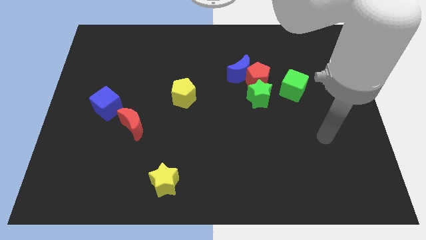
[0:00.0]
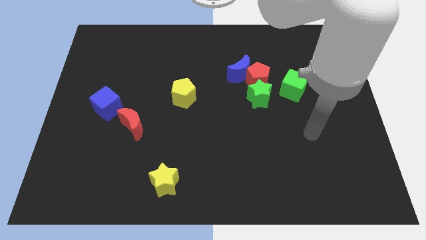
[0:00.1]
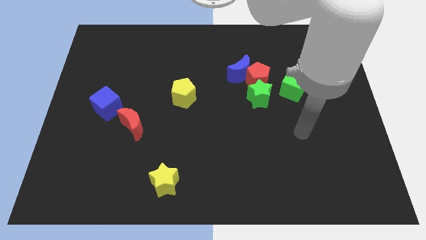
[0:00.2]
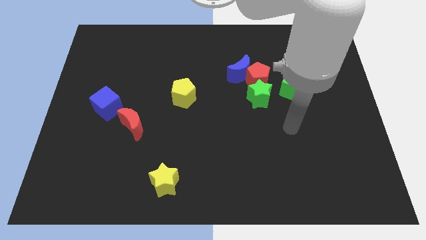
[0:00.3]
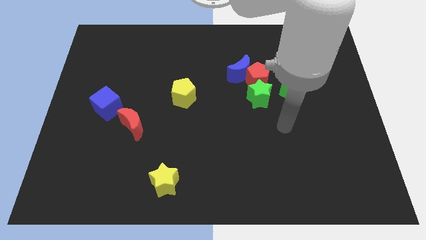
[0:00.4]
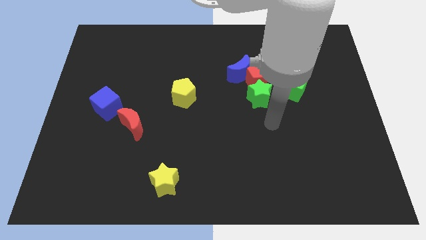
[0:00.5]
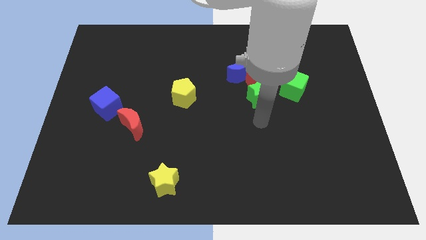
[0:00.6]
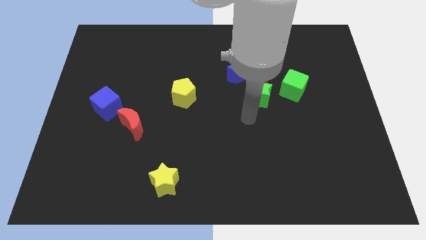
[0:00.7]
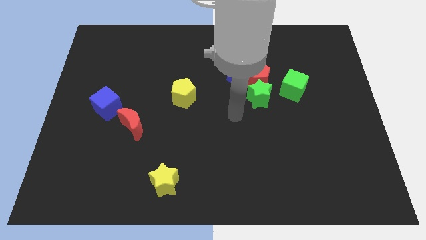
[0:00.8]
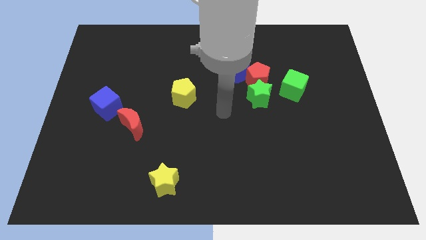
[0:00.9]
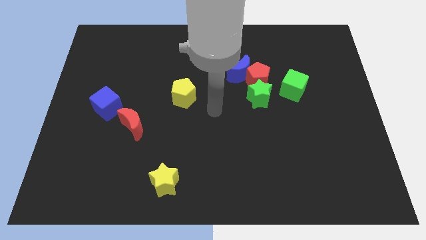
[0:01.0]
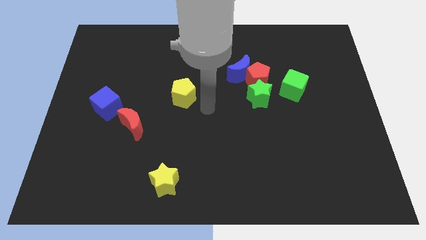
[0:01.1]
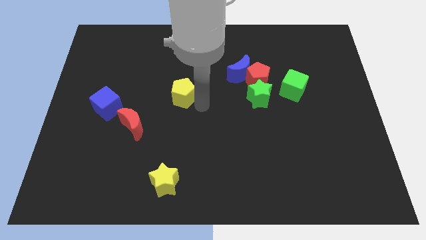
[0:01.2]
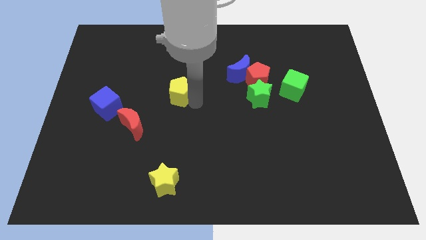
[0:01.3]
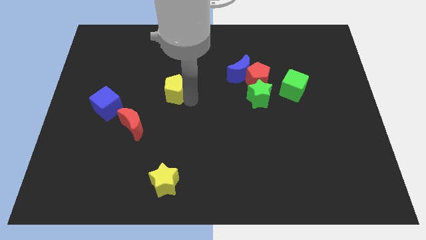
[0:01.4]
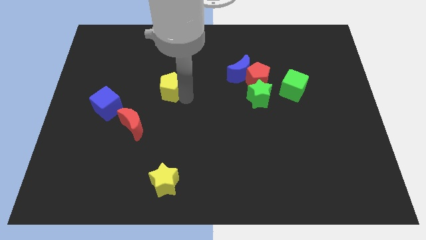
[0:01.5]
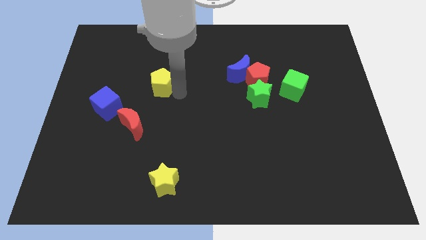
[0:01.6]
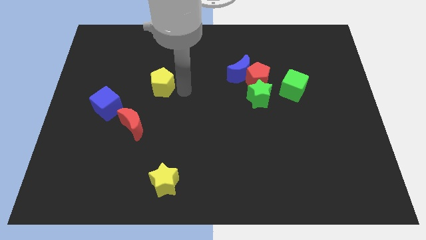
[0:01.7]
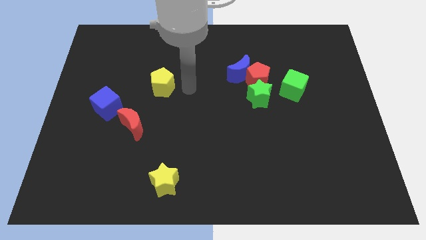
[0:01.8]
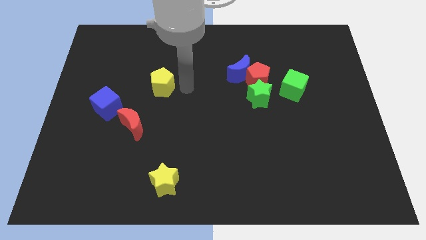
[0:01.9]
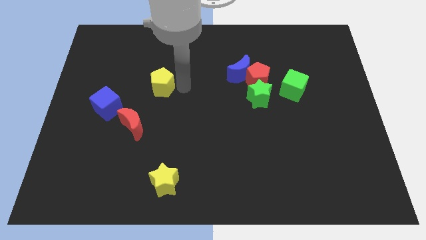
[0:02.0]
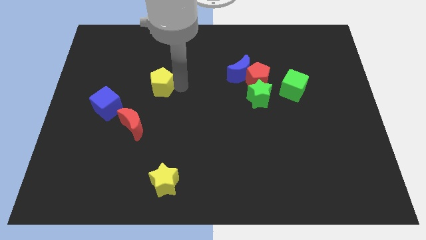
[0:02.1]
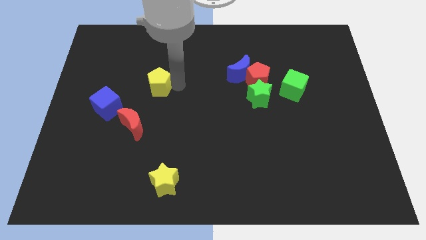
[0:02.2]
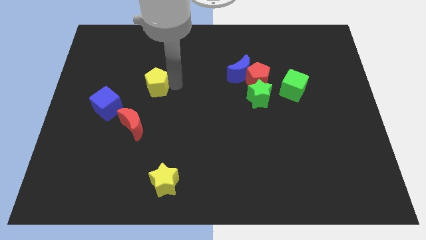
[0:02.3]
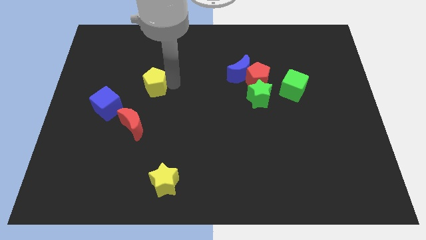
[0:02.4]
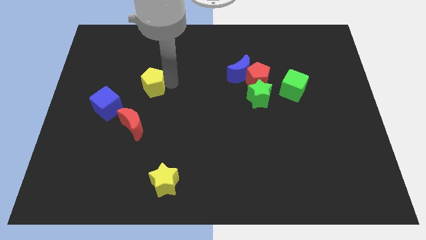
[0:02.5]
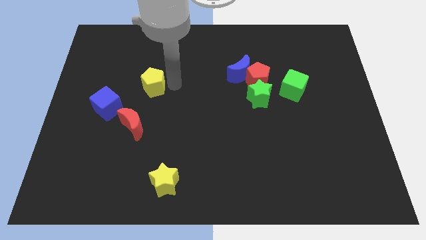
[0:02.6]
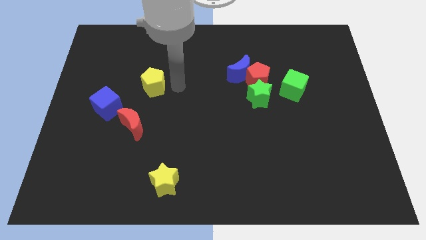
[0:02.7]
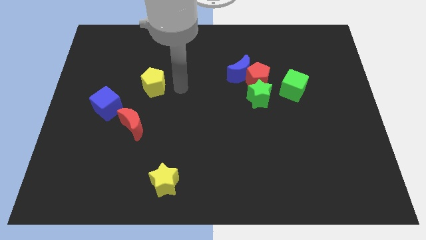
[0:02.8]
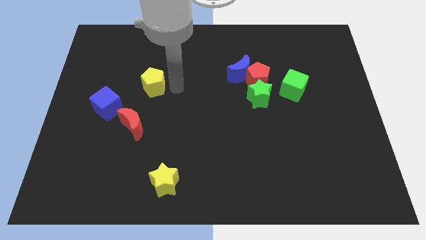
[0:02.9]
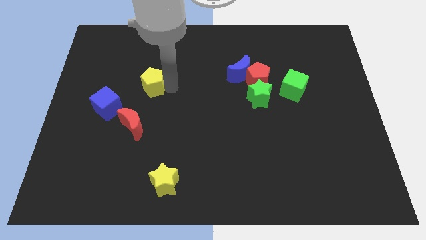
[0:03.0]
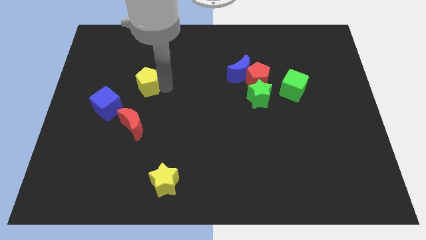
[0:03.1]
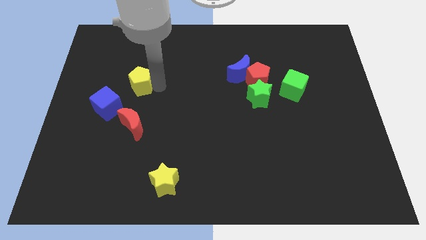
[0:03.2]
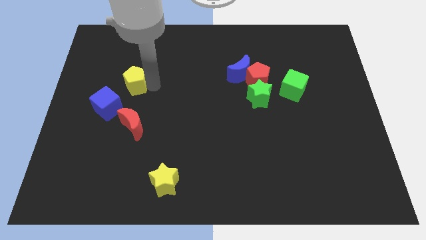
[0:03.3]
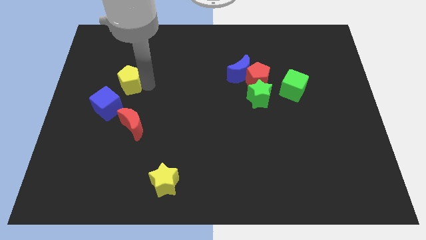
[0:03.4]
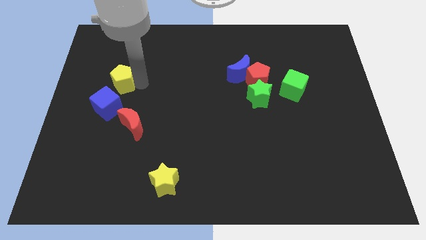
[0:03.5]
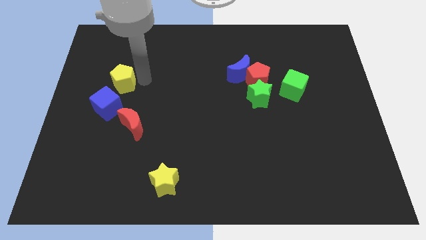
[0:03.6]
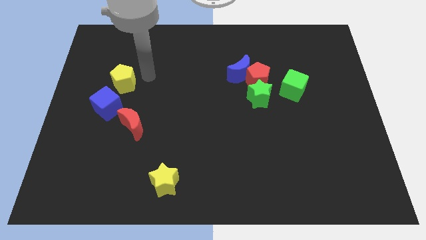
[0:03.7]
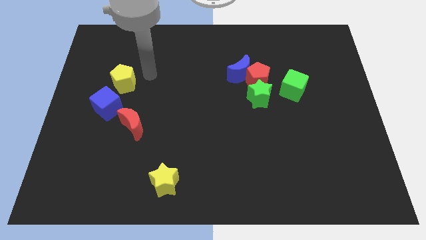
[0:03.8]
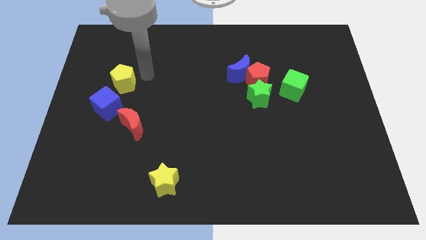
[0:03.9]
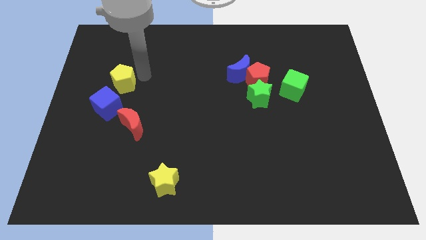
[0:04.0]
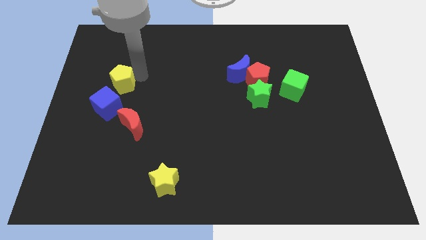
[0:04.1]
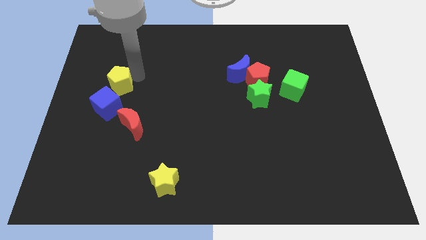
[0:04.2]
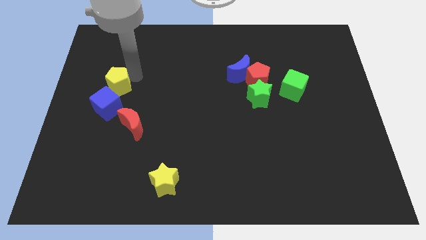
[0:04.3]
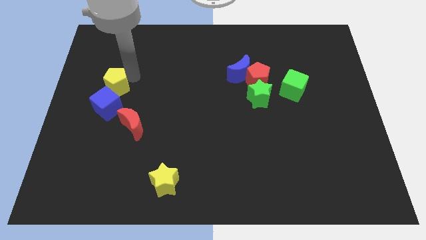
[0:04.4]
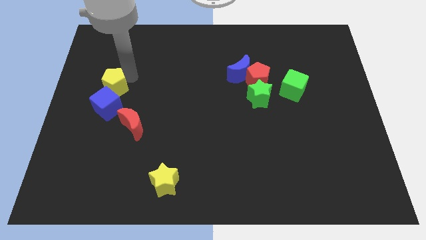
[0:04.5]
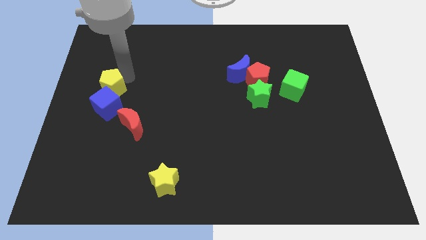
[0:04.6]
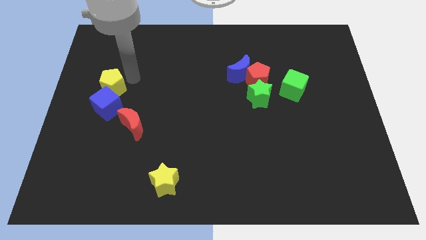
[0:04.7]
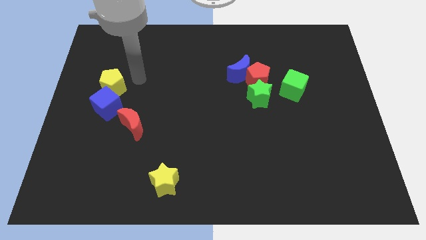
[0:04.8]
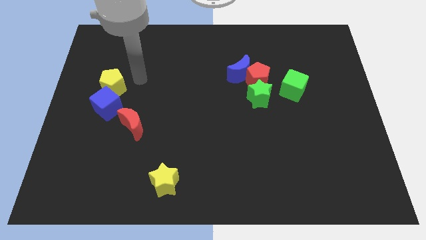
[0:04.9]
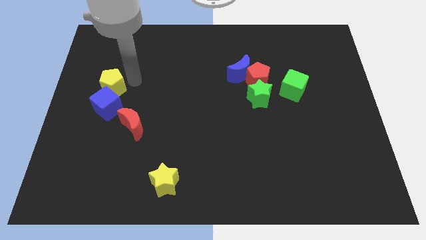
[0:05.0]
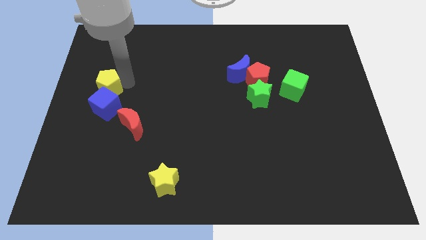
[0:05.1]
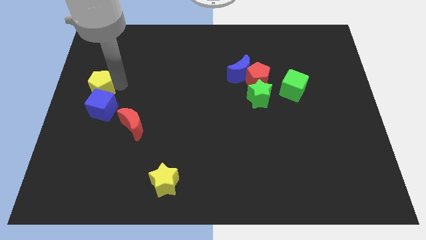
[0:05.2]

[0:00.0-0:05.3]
put the yellow pentagon to the left side

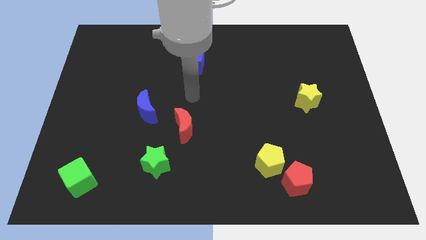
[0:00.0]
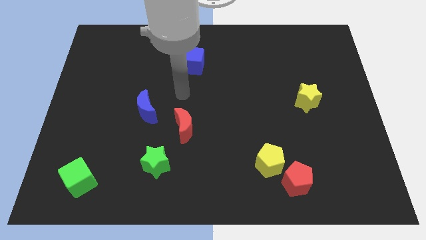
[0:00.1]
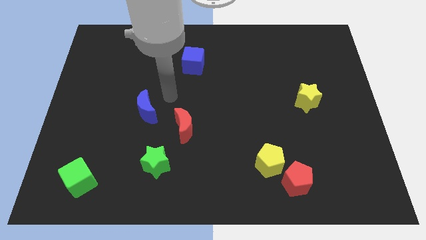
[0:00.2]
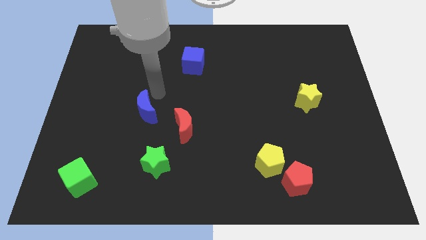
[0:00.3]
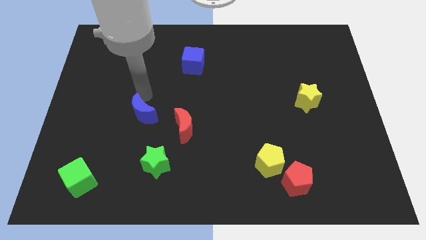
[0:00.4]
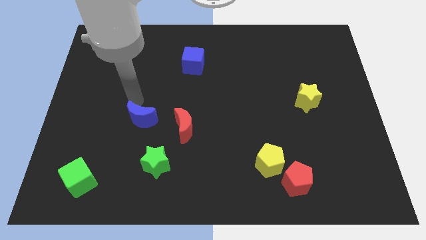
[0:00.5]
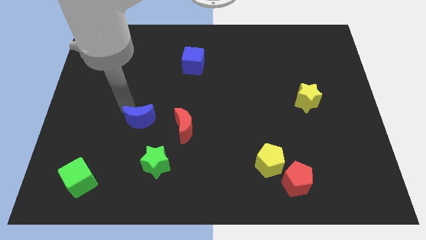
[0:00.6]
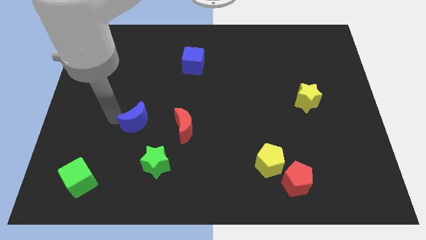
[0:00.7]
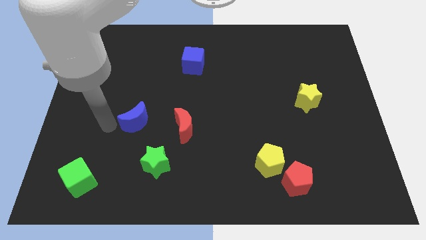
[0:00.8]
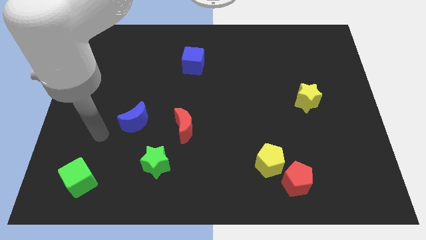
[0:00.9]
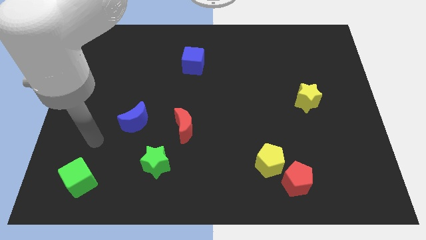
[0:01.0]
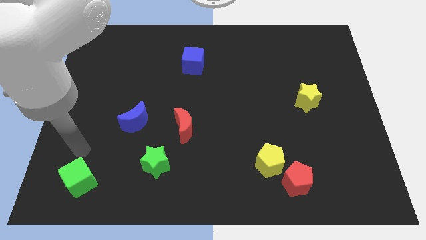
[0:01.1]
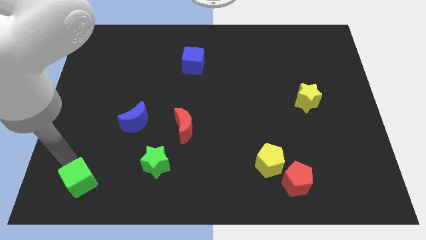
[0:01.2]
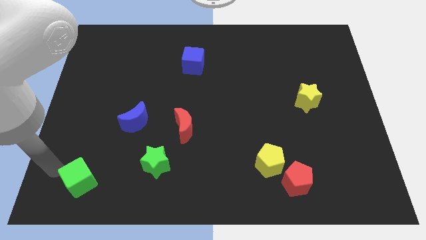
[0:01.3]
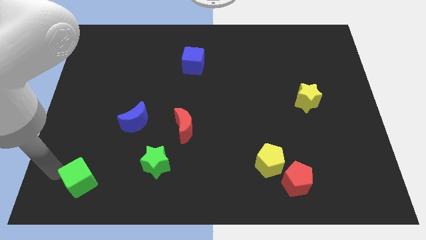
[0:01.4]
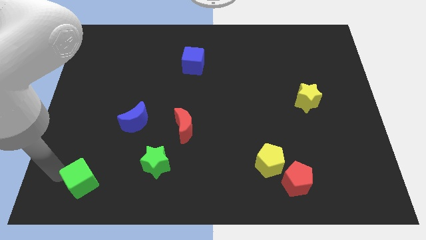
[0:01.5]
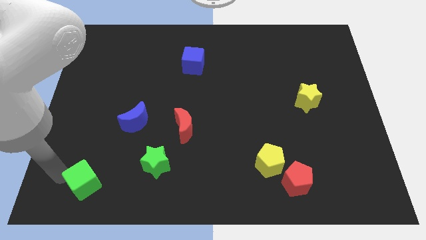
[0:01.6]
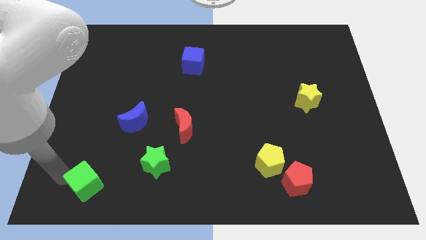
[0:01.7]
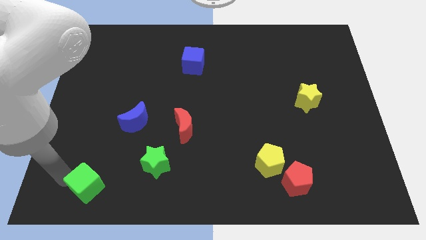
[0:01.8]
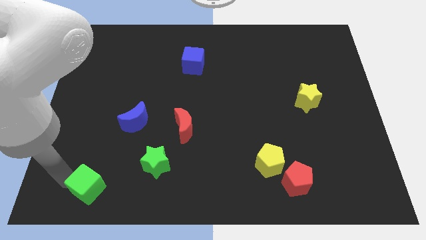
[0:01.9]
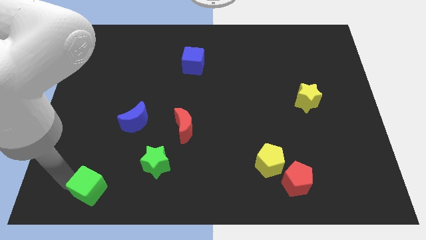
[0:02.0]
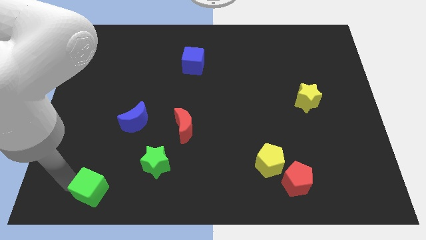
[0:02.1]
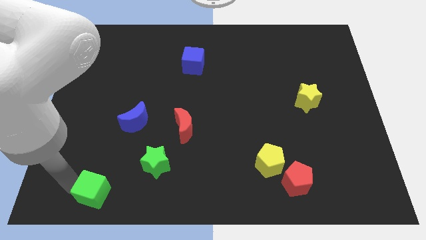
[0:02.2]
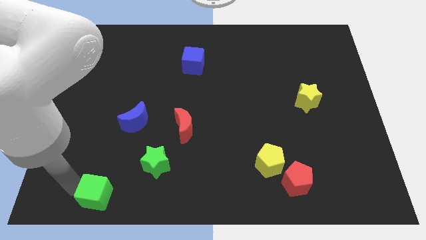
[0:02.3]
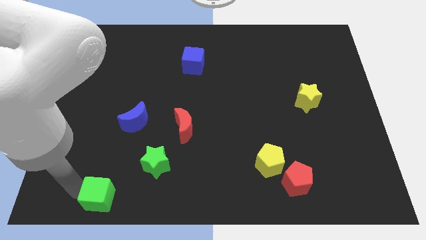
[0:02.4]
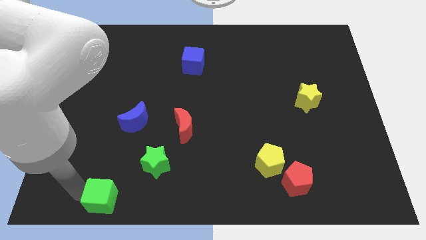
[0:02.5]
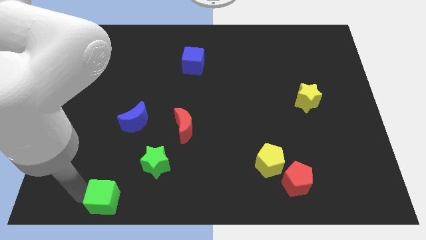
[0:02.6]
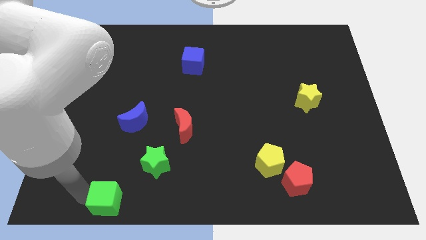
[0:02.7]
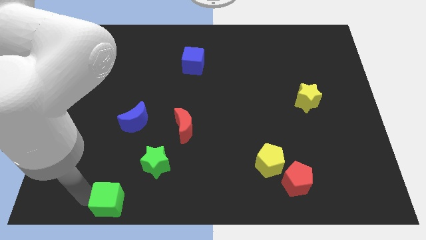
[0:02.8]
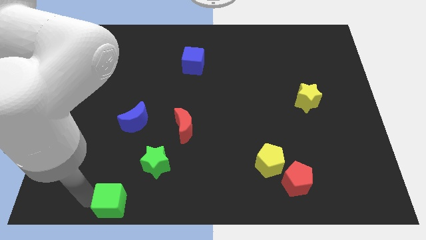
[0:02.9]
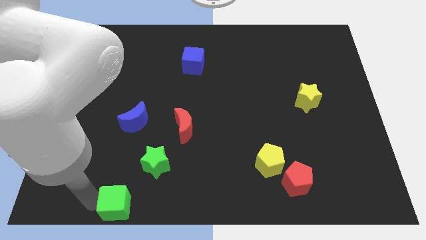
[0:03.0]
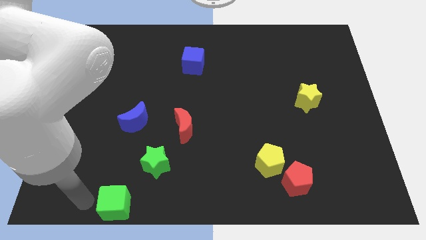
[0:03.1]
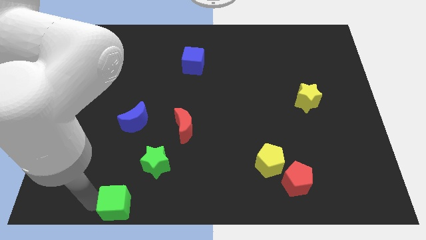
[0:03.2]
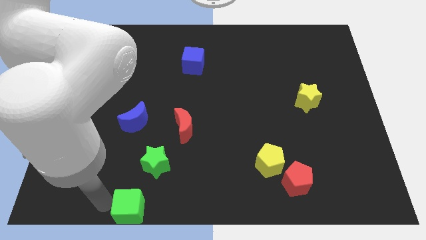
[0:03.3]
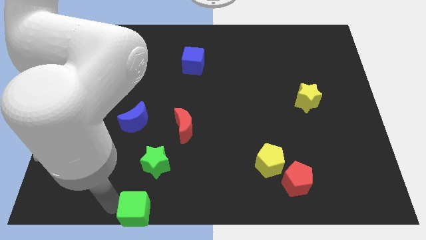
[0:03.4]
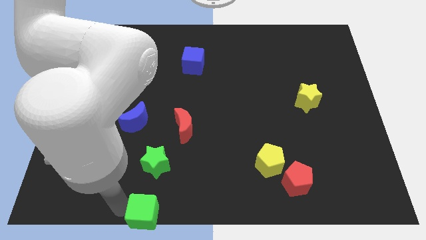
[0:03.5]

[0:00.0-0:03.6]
slide the green cube to the bottom side
